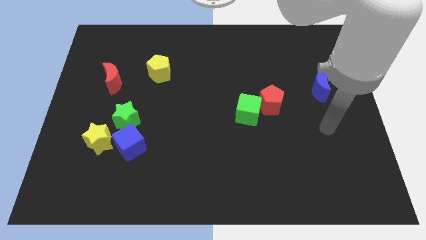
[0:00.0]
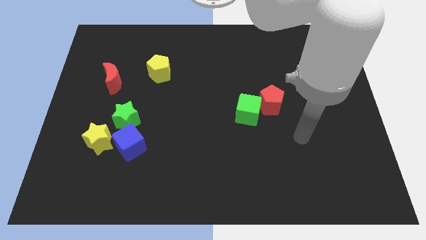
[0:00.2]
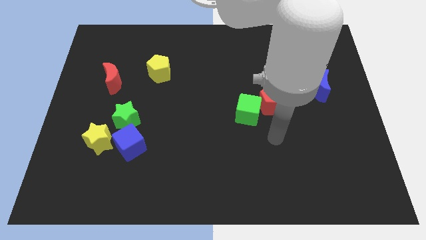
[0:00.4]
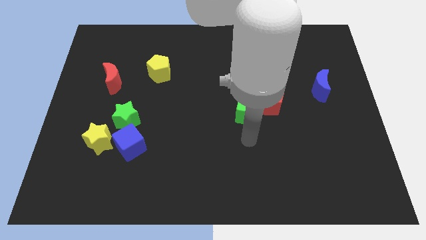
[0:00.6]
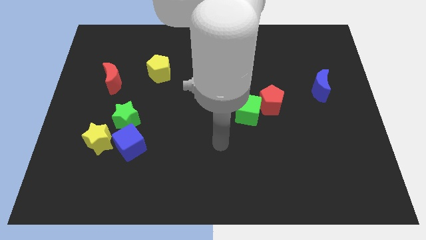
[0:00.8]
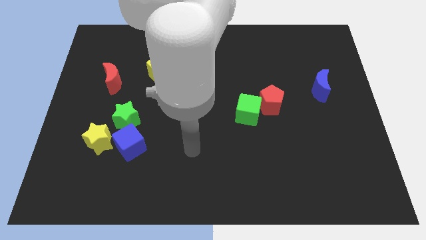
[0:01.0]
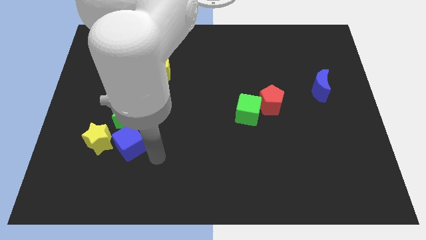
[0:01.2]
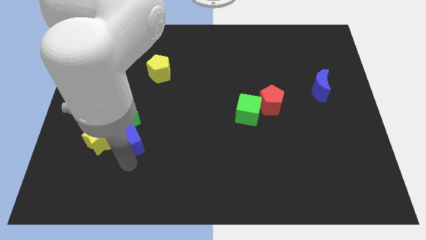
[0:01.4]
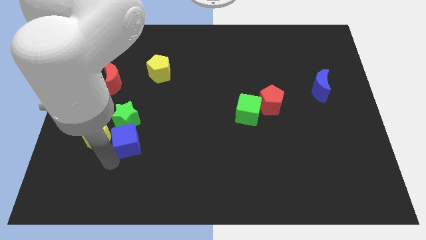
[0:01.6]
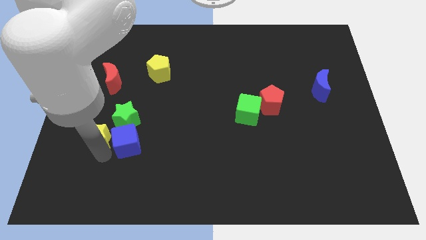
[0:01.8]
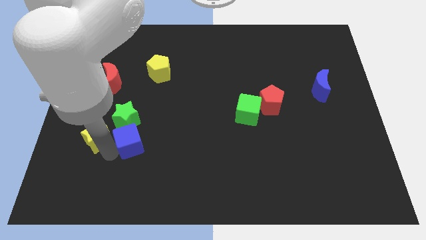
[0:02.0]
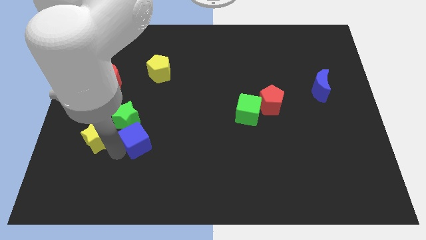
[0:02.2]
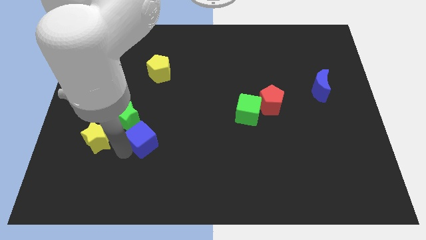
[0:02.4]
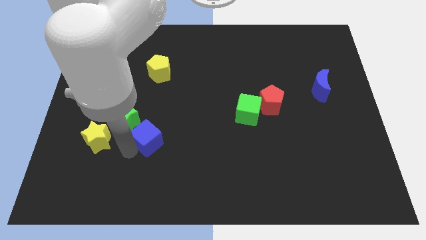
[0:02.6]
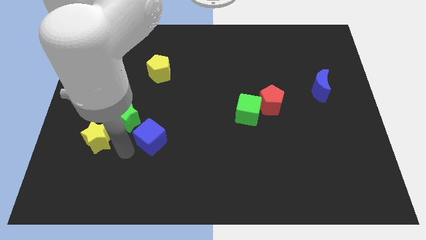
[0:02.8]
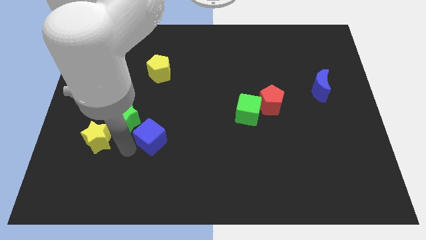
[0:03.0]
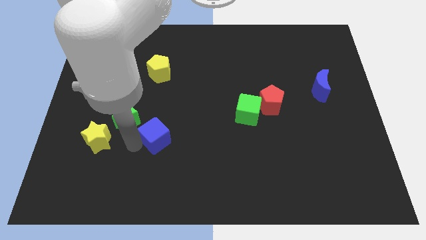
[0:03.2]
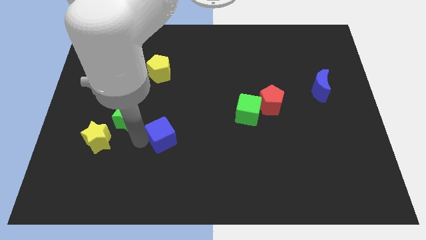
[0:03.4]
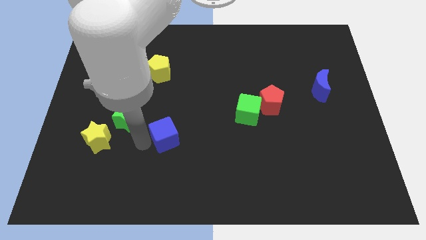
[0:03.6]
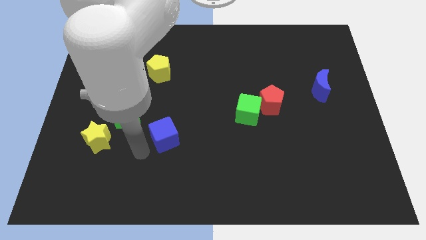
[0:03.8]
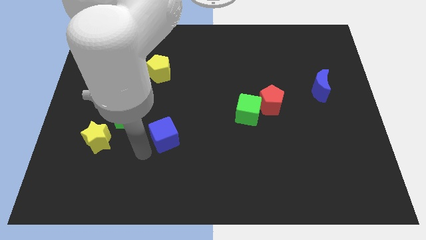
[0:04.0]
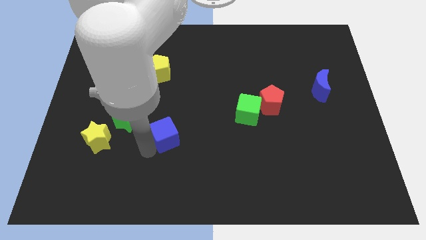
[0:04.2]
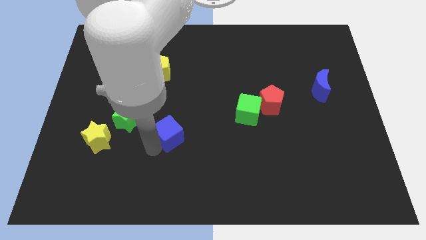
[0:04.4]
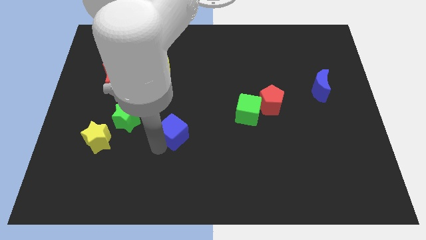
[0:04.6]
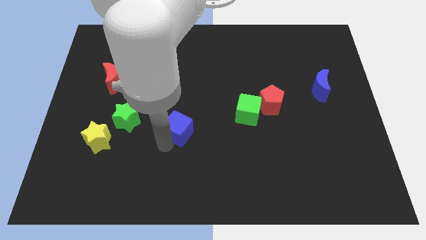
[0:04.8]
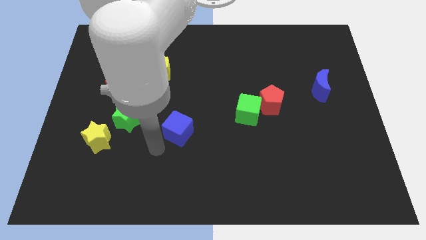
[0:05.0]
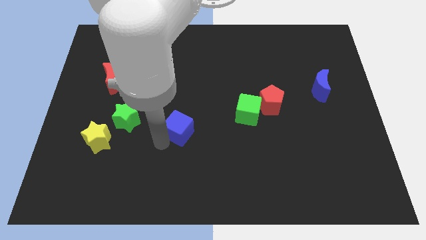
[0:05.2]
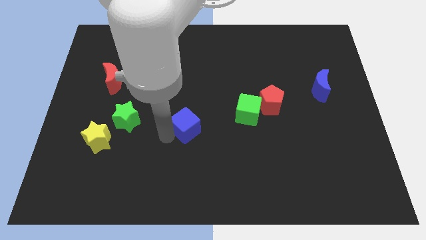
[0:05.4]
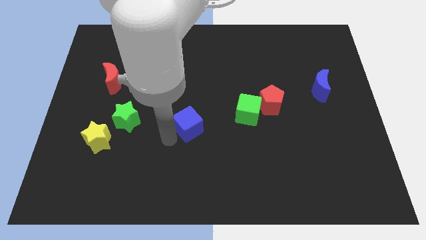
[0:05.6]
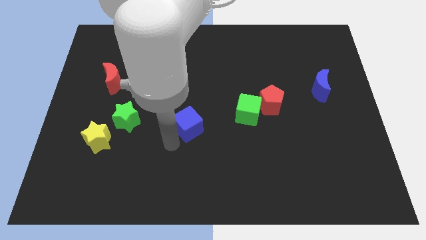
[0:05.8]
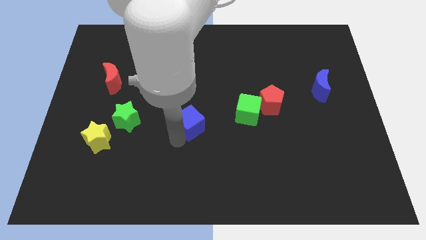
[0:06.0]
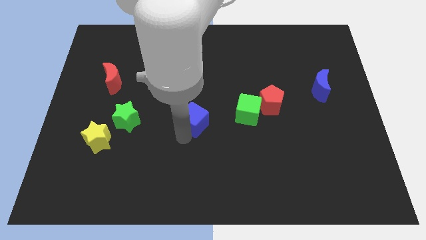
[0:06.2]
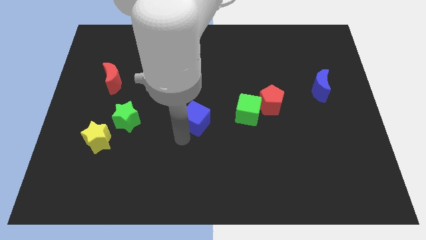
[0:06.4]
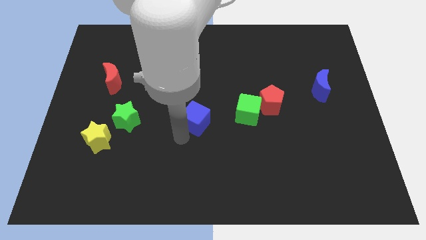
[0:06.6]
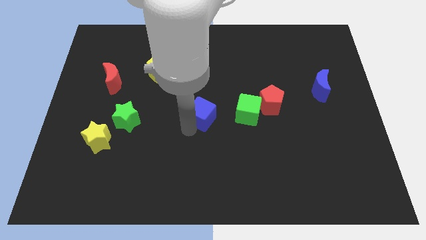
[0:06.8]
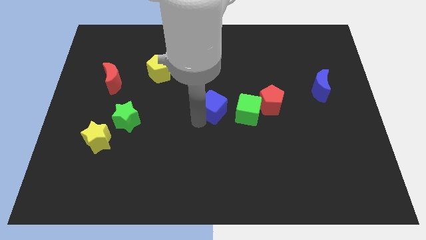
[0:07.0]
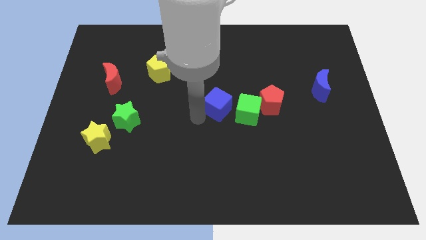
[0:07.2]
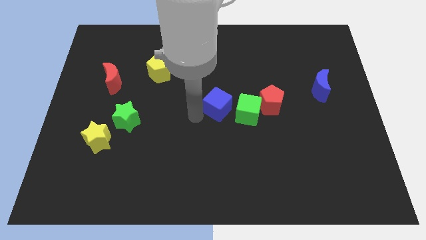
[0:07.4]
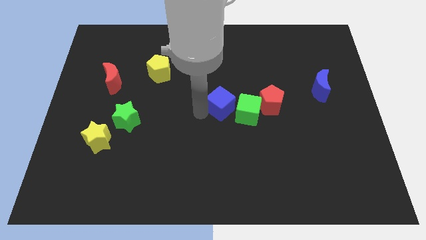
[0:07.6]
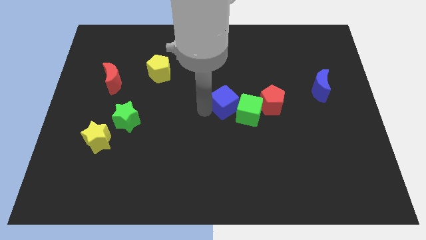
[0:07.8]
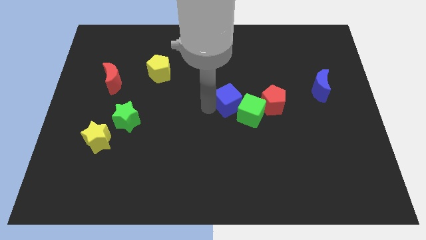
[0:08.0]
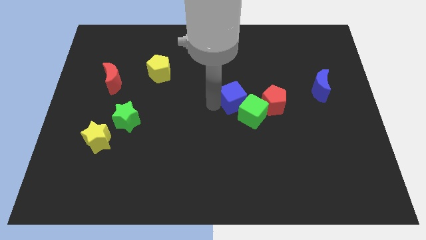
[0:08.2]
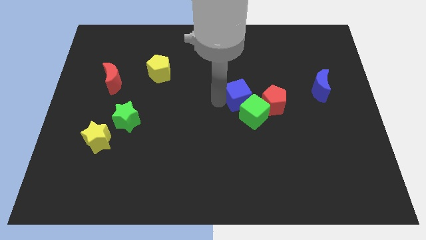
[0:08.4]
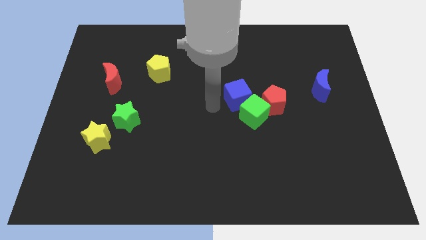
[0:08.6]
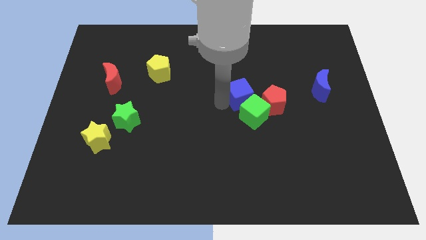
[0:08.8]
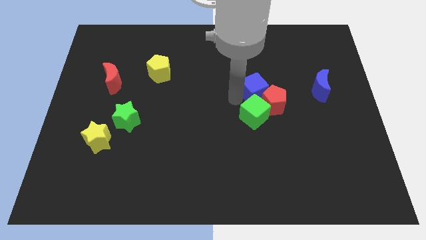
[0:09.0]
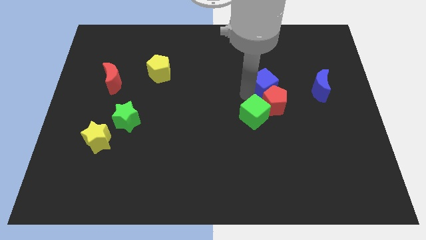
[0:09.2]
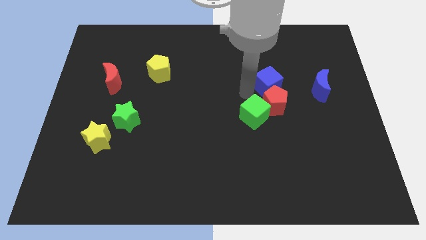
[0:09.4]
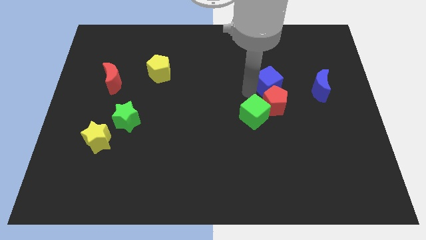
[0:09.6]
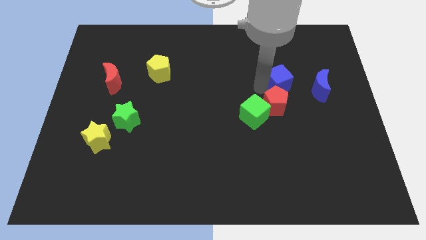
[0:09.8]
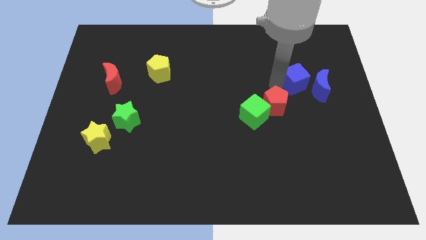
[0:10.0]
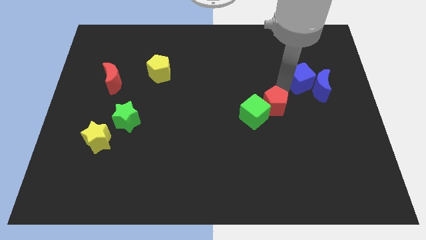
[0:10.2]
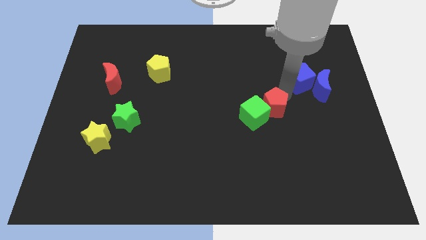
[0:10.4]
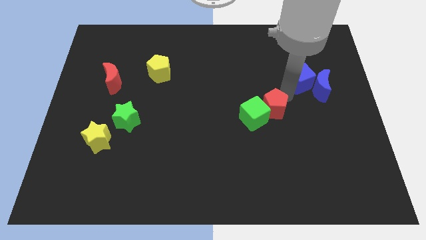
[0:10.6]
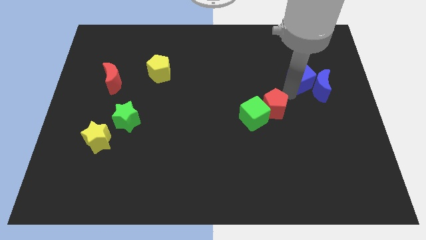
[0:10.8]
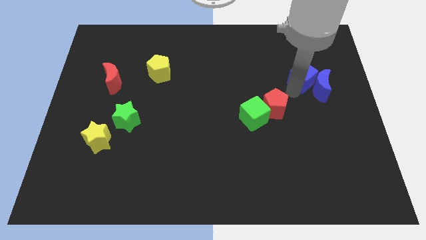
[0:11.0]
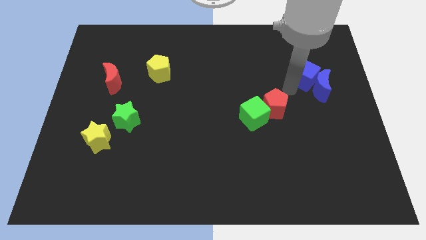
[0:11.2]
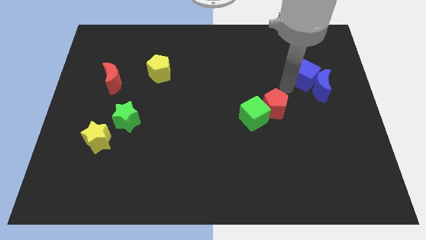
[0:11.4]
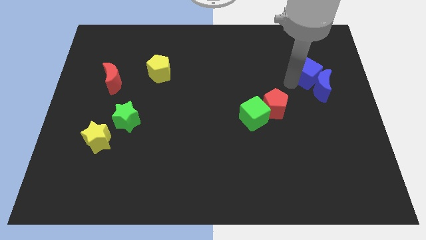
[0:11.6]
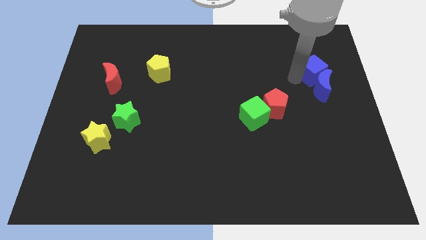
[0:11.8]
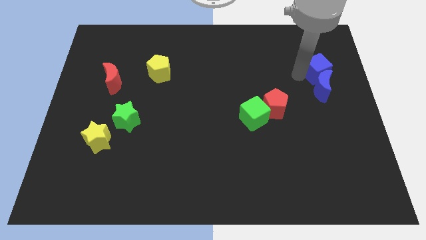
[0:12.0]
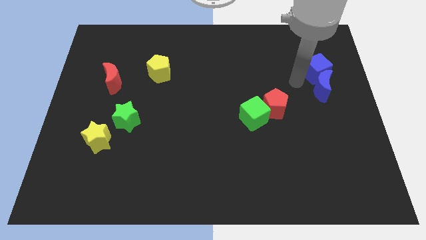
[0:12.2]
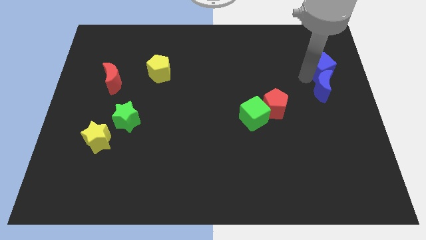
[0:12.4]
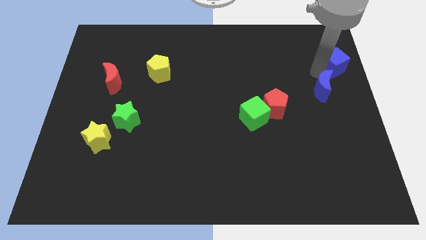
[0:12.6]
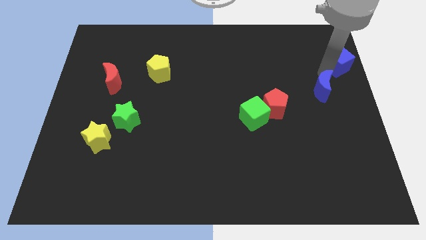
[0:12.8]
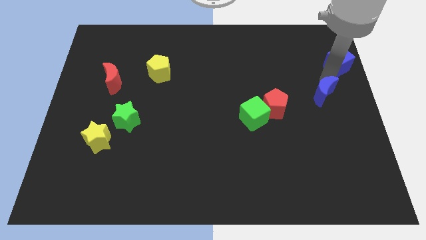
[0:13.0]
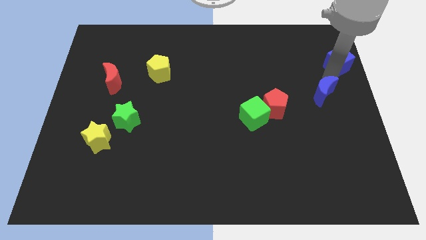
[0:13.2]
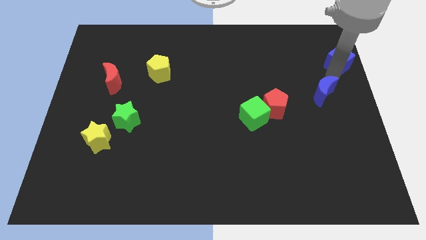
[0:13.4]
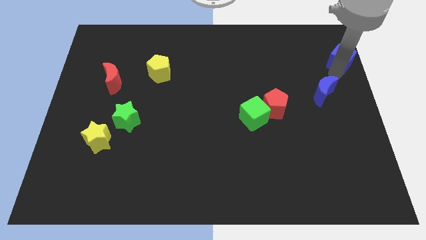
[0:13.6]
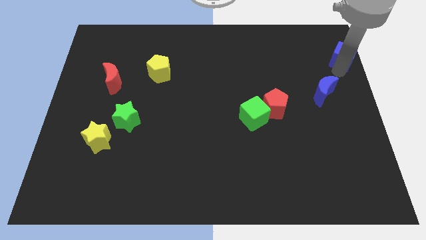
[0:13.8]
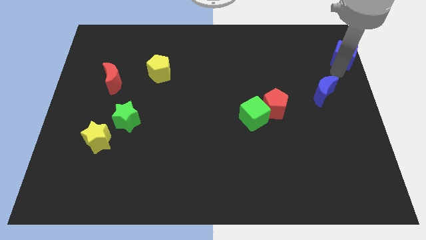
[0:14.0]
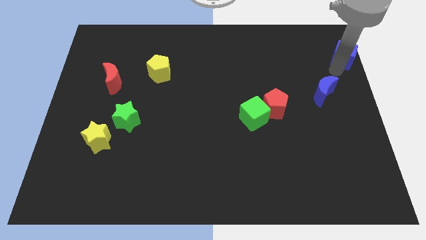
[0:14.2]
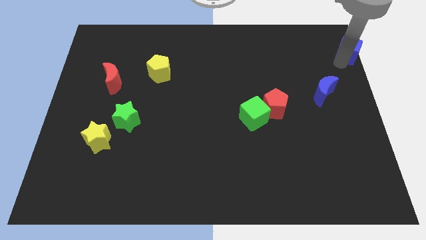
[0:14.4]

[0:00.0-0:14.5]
move the blue cube to the top right corner

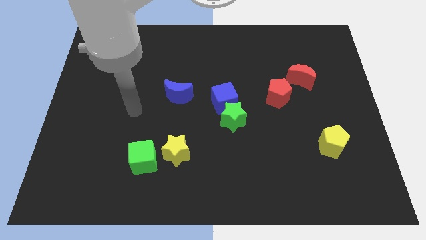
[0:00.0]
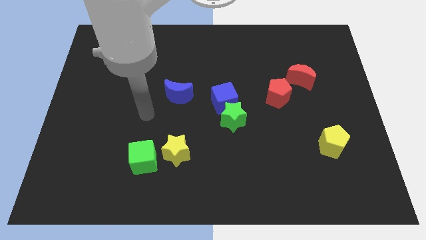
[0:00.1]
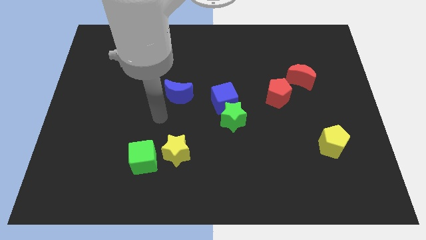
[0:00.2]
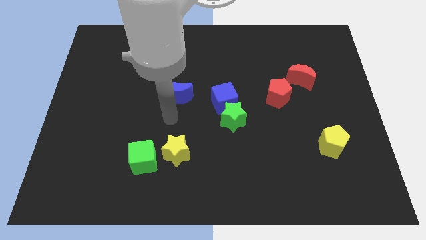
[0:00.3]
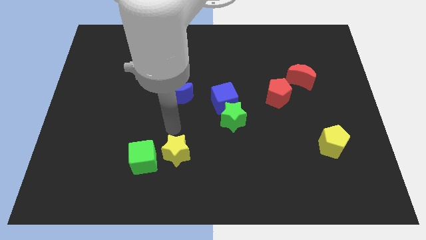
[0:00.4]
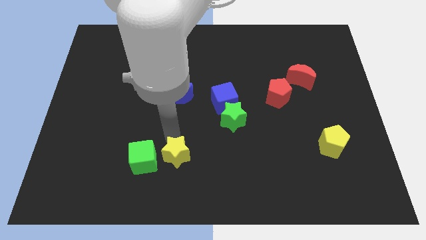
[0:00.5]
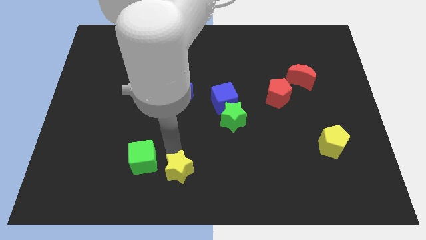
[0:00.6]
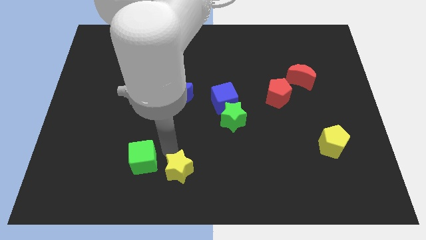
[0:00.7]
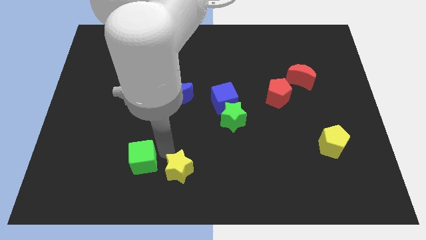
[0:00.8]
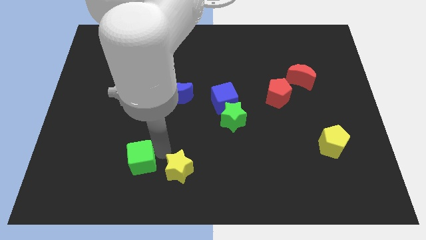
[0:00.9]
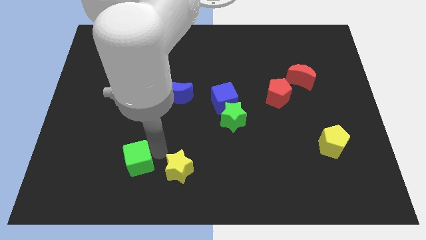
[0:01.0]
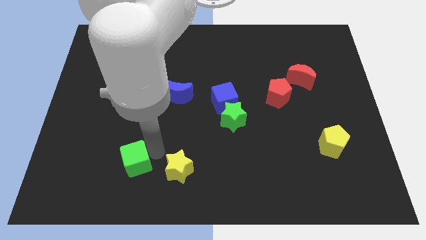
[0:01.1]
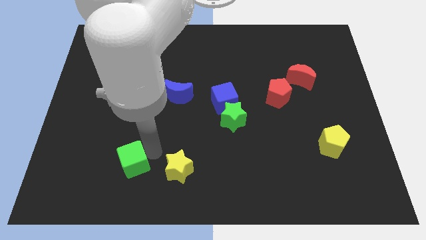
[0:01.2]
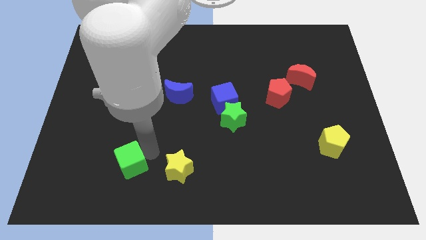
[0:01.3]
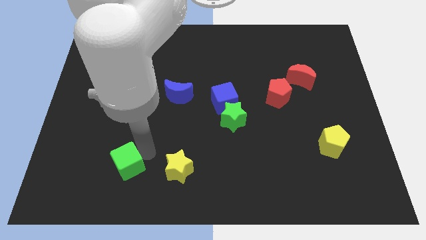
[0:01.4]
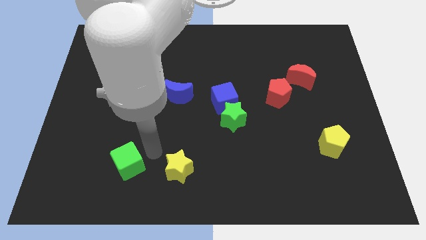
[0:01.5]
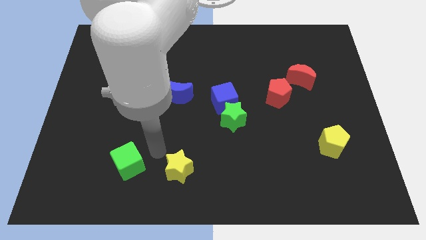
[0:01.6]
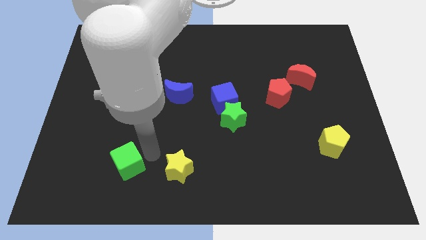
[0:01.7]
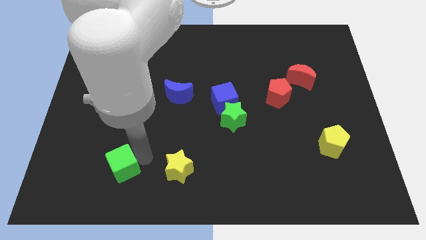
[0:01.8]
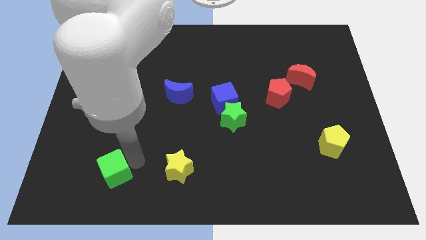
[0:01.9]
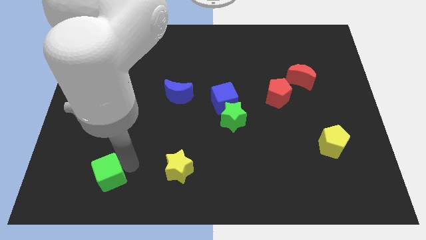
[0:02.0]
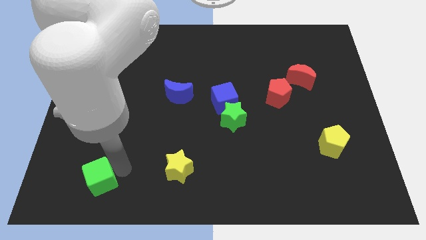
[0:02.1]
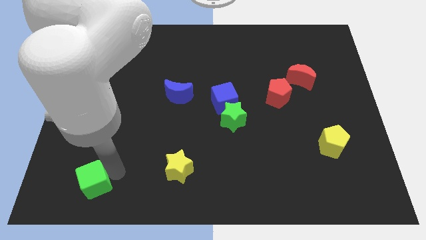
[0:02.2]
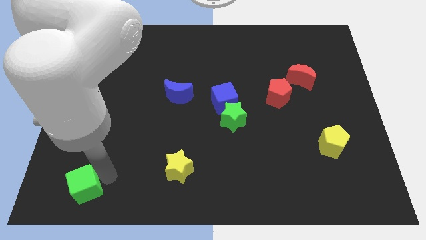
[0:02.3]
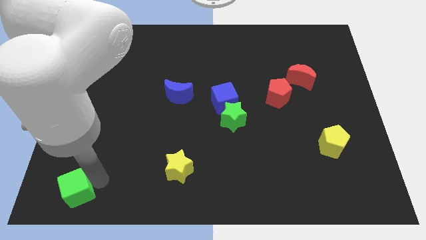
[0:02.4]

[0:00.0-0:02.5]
move the green cube to the bottom left corner
